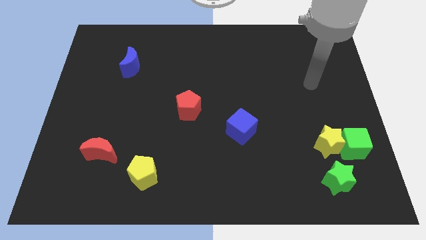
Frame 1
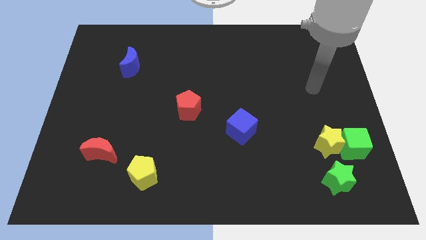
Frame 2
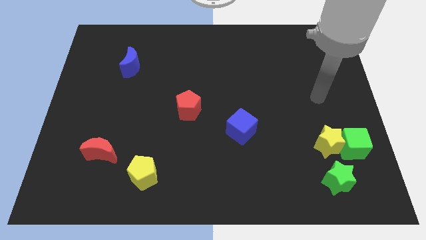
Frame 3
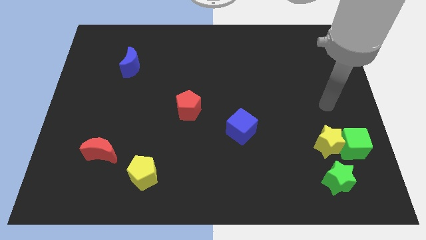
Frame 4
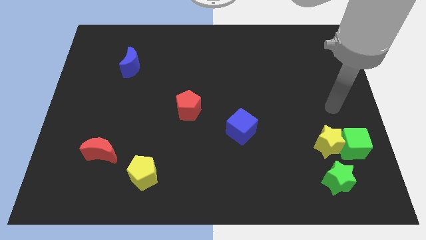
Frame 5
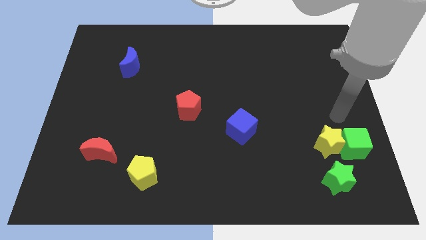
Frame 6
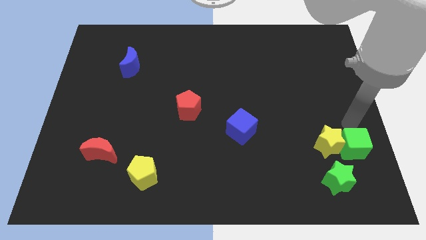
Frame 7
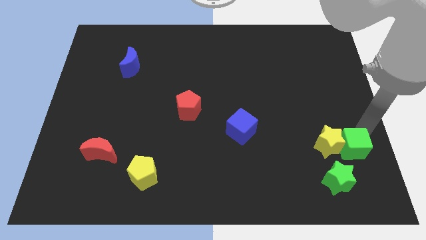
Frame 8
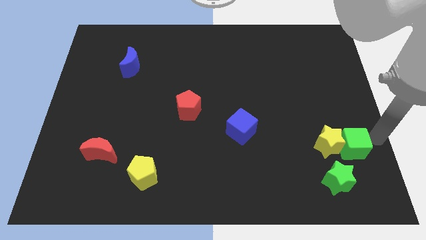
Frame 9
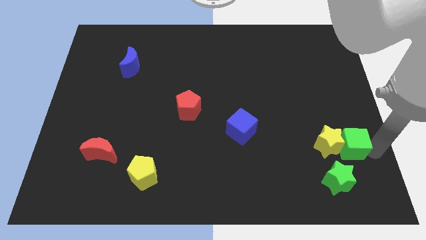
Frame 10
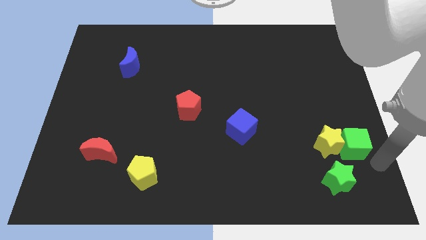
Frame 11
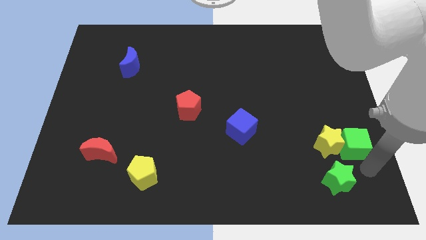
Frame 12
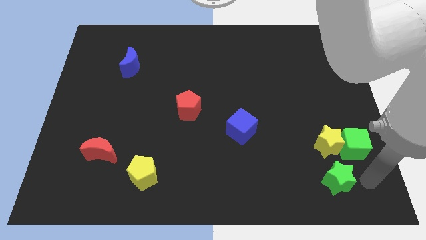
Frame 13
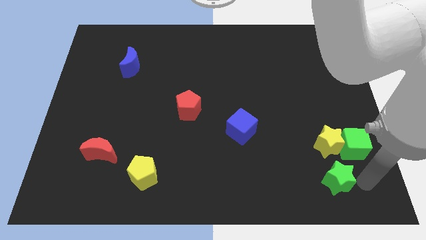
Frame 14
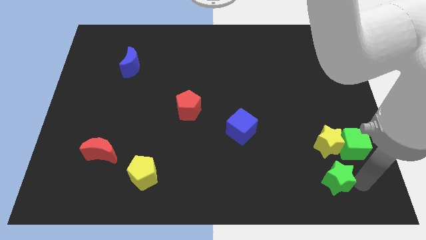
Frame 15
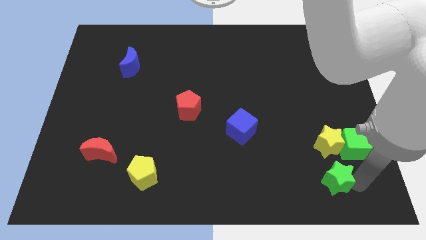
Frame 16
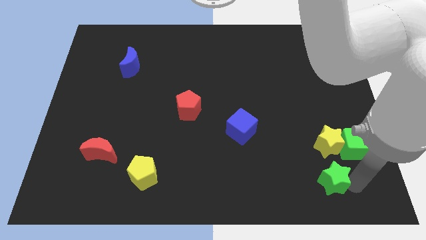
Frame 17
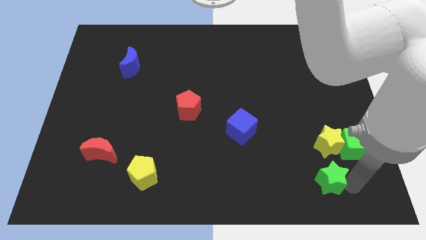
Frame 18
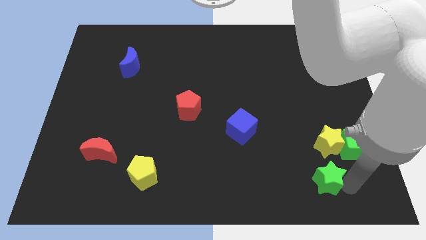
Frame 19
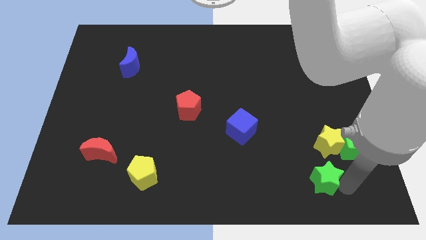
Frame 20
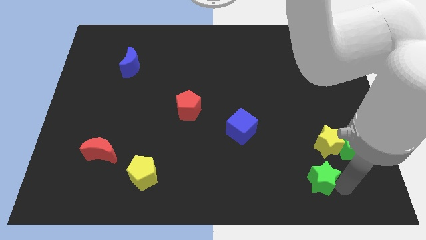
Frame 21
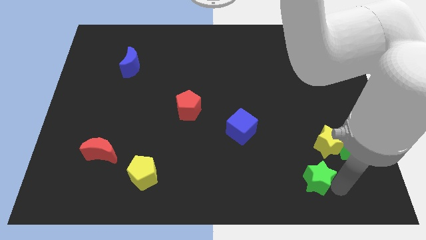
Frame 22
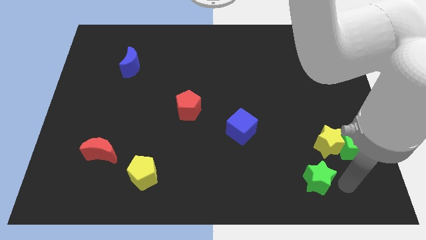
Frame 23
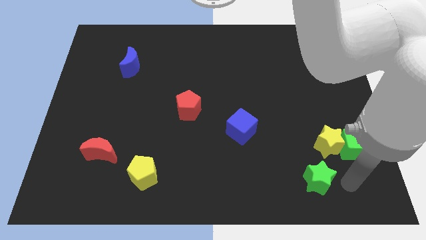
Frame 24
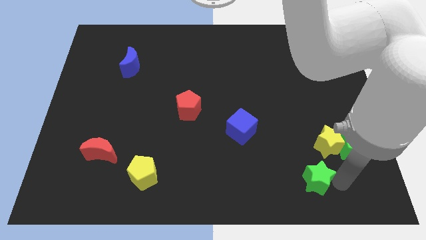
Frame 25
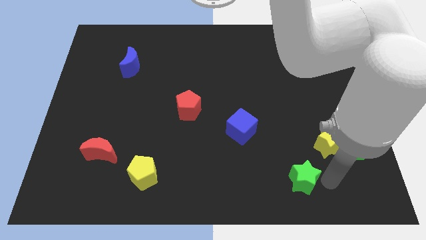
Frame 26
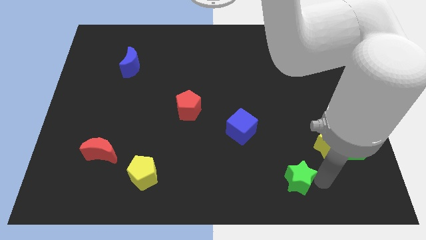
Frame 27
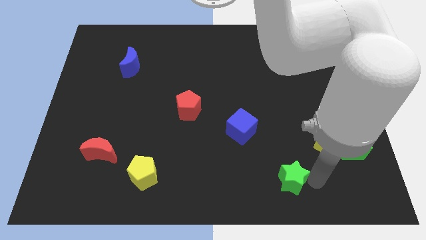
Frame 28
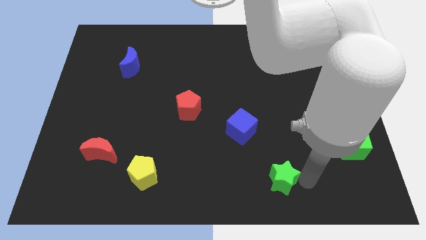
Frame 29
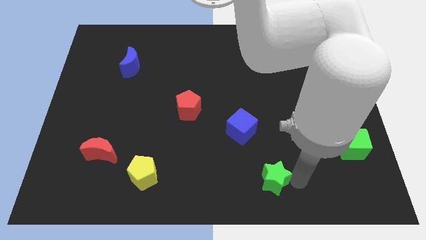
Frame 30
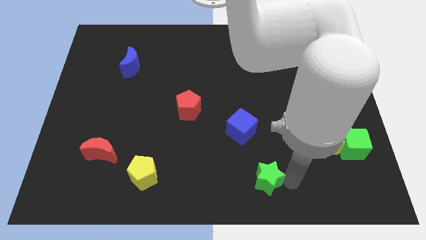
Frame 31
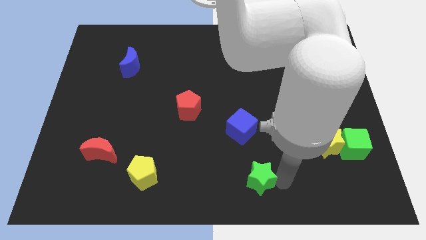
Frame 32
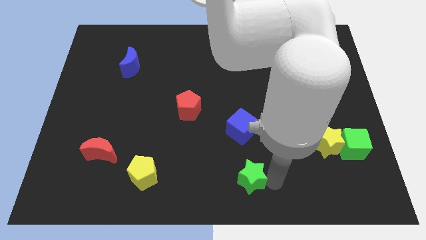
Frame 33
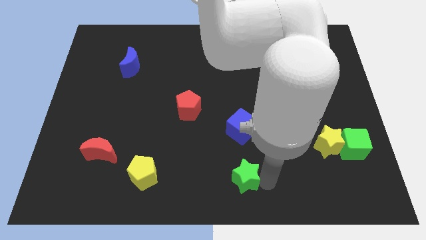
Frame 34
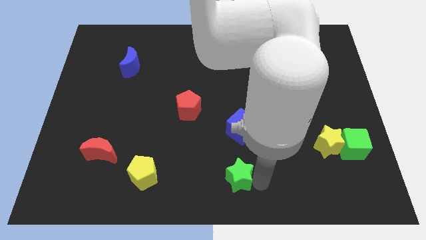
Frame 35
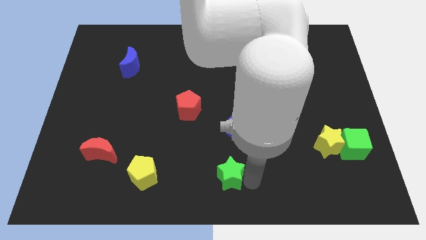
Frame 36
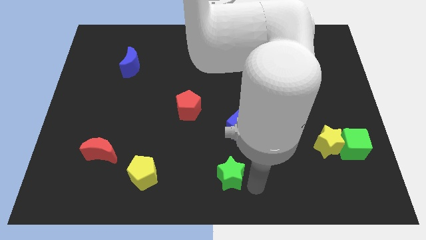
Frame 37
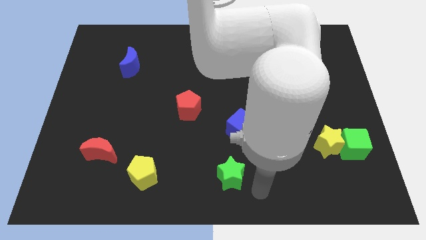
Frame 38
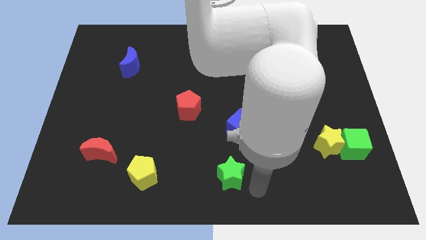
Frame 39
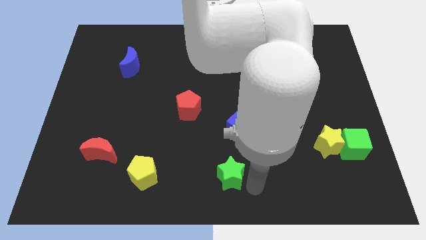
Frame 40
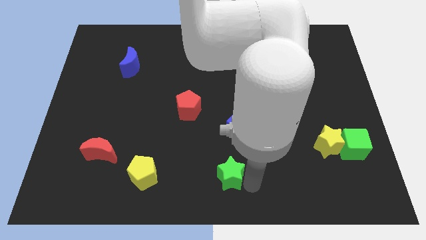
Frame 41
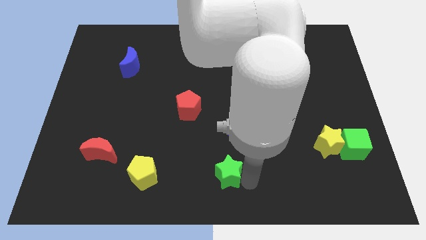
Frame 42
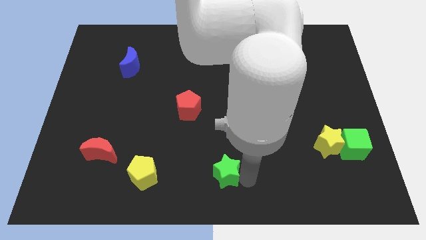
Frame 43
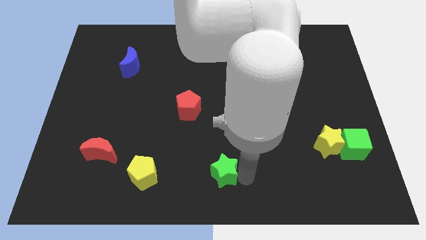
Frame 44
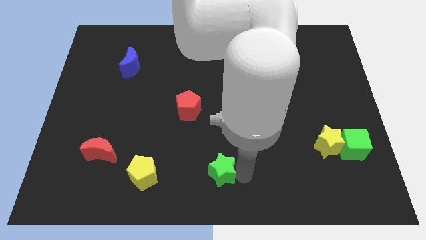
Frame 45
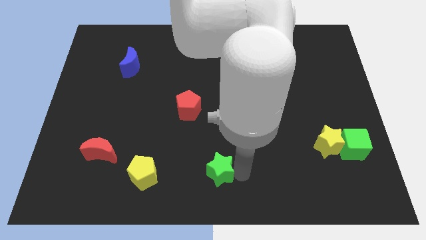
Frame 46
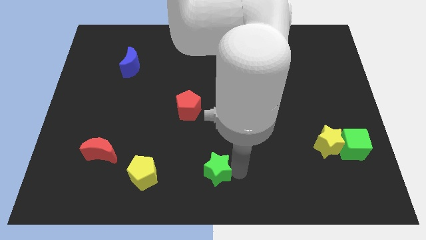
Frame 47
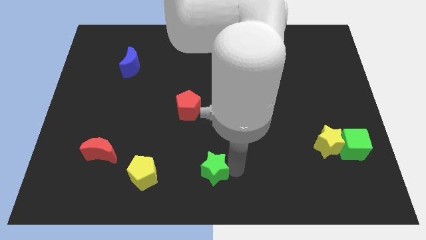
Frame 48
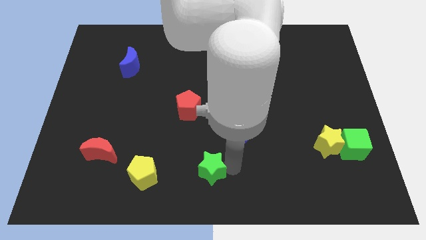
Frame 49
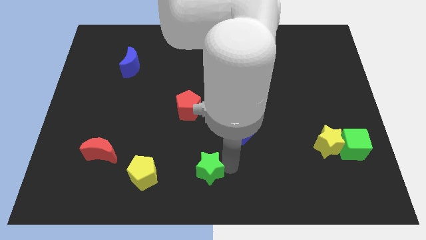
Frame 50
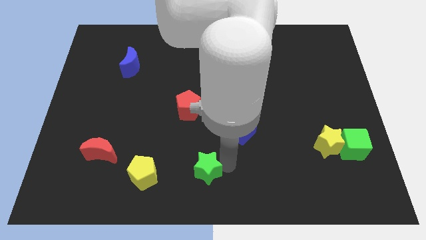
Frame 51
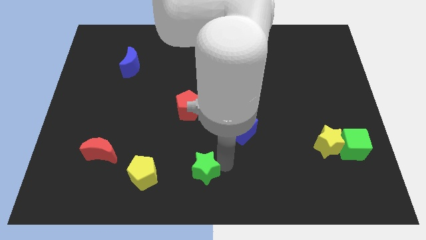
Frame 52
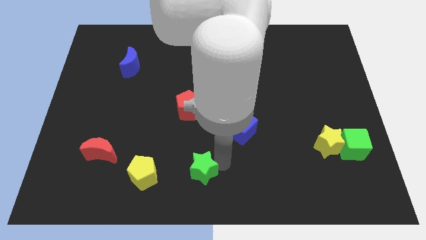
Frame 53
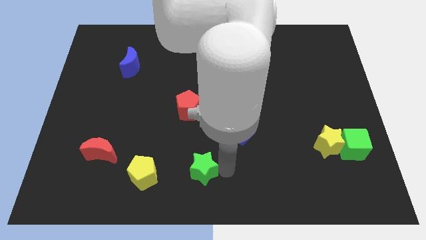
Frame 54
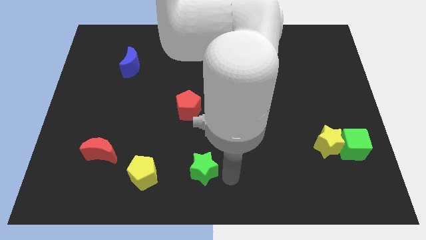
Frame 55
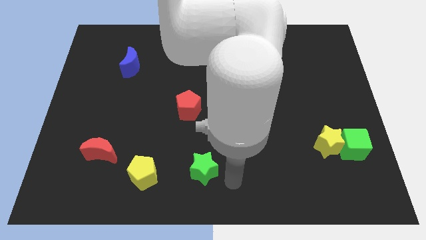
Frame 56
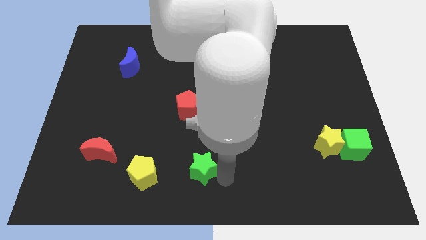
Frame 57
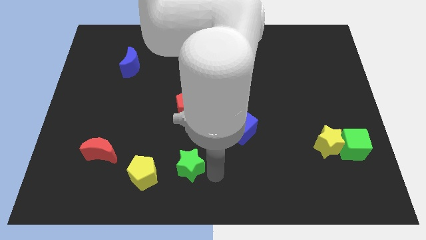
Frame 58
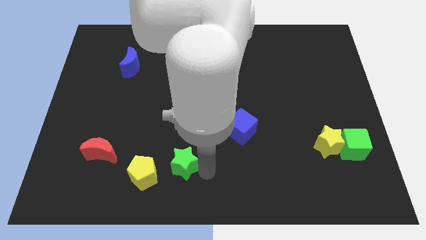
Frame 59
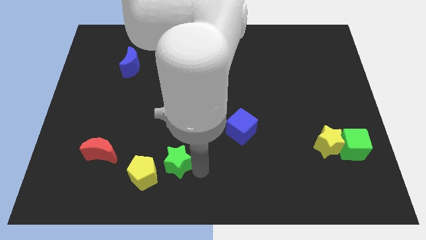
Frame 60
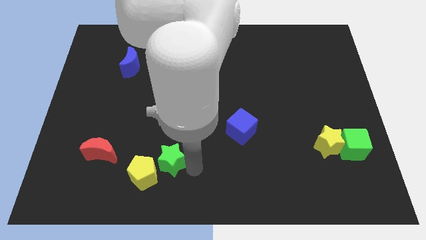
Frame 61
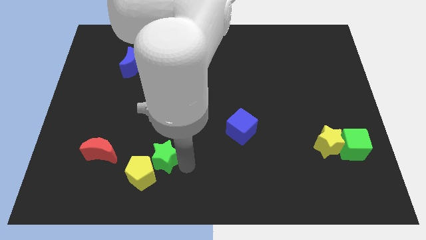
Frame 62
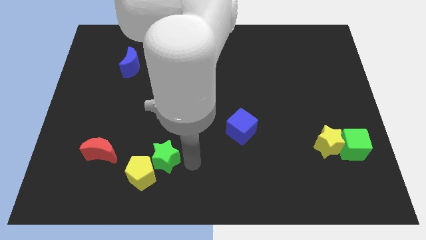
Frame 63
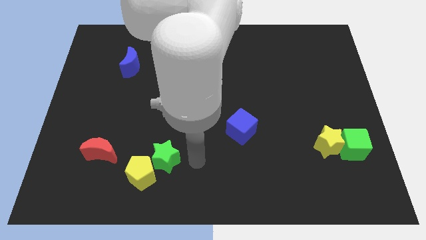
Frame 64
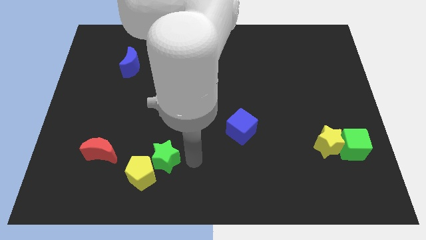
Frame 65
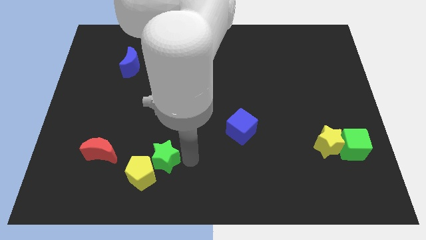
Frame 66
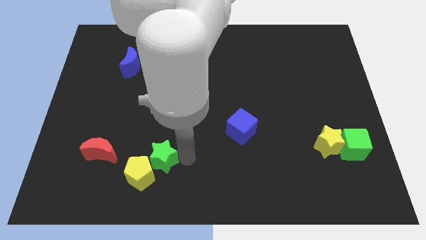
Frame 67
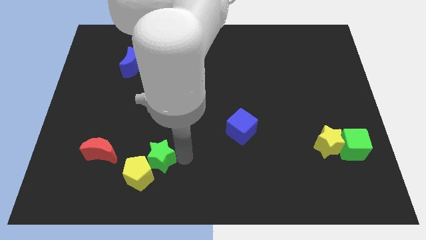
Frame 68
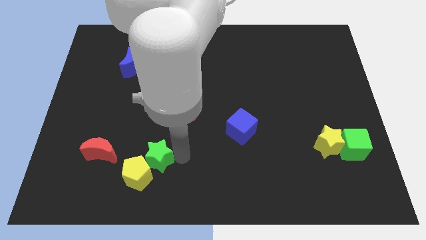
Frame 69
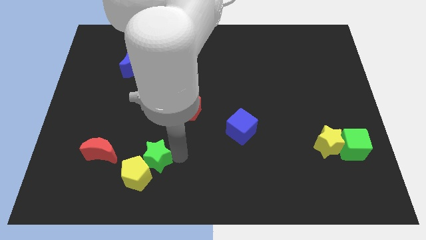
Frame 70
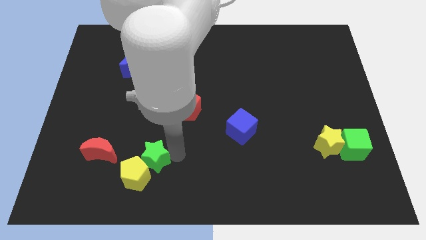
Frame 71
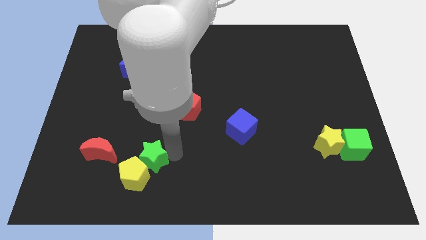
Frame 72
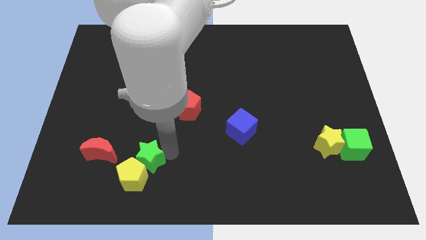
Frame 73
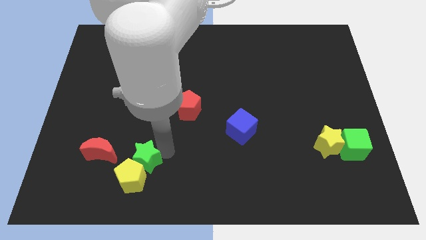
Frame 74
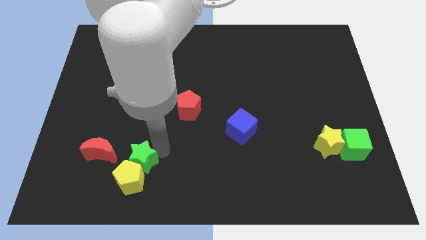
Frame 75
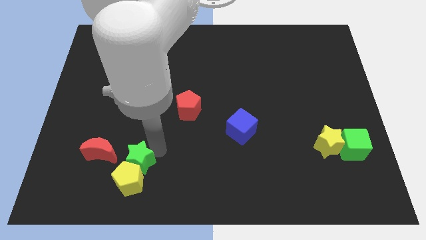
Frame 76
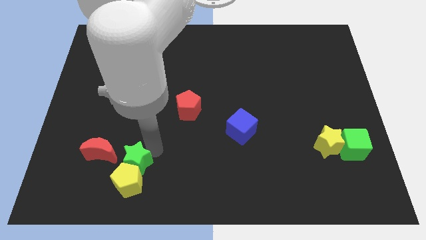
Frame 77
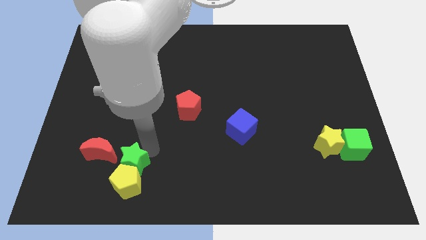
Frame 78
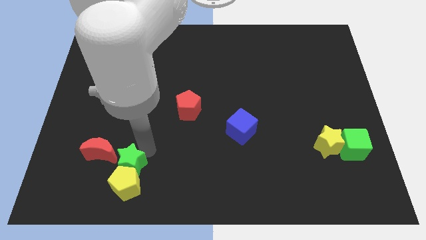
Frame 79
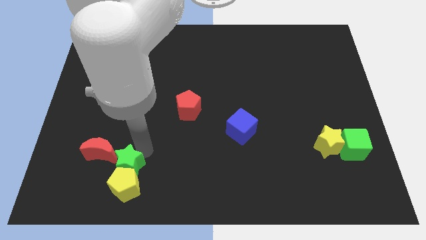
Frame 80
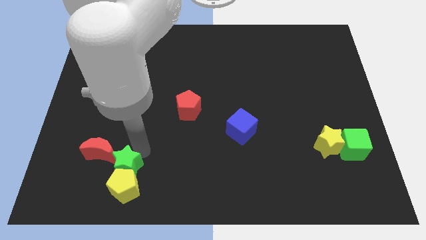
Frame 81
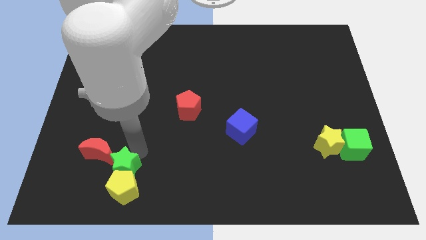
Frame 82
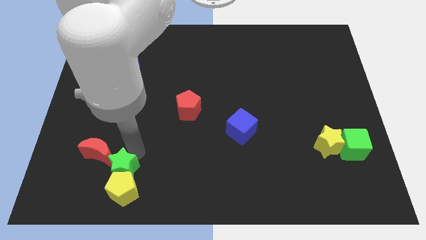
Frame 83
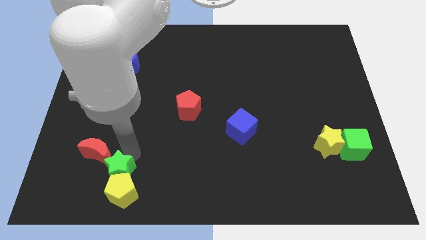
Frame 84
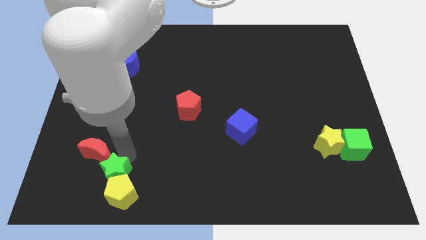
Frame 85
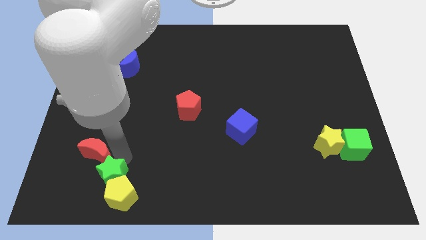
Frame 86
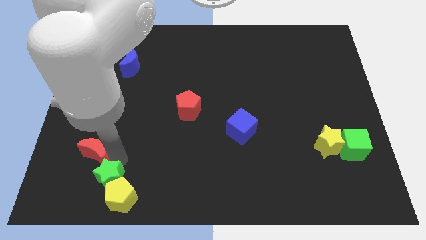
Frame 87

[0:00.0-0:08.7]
move the green star to the left side of the yellow pentagon
